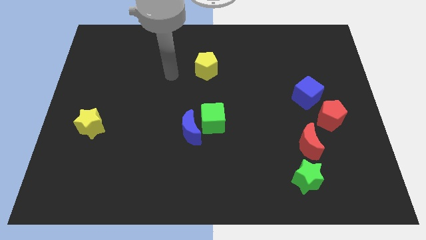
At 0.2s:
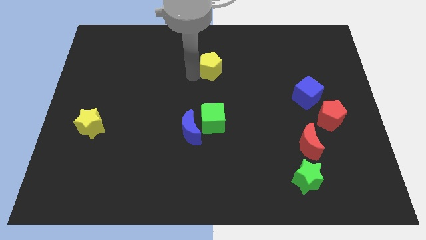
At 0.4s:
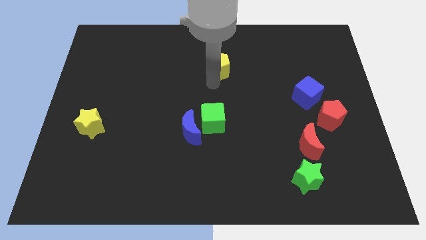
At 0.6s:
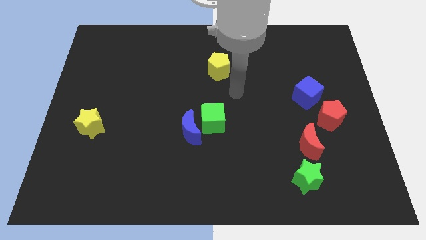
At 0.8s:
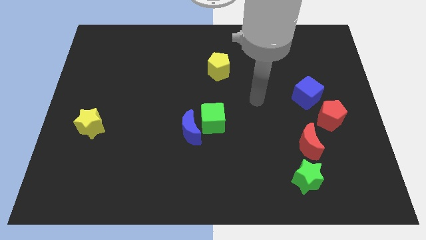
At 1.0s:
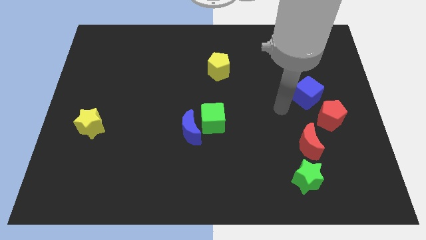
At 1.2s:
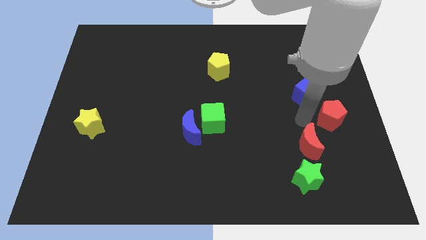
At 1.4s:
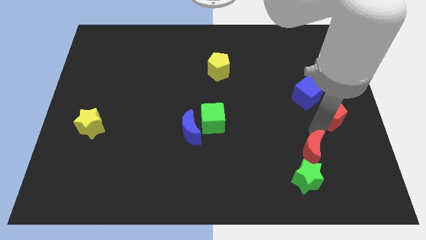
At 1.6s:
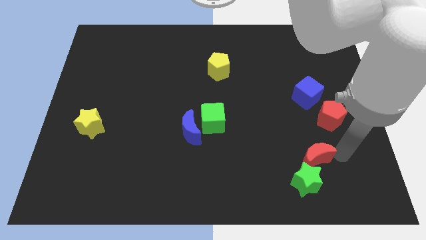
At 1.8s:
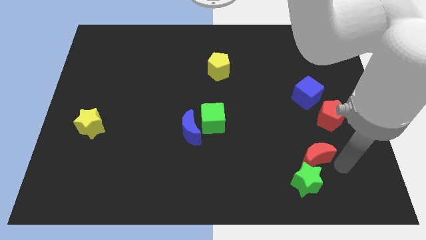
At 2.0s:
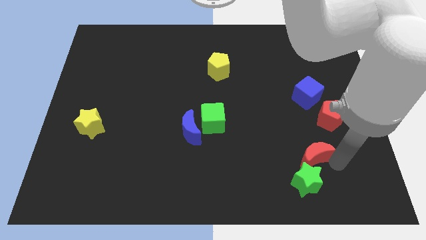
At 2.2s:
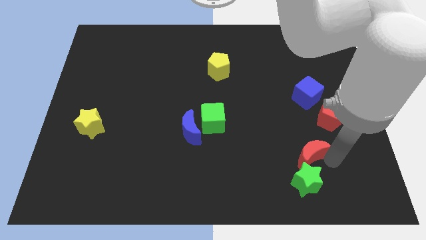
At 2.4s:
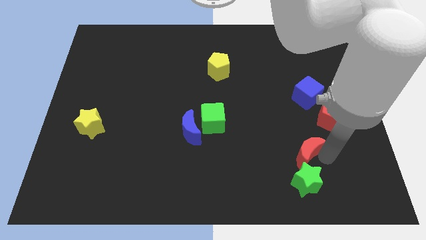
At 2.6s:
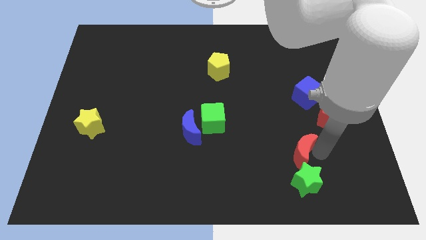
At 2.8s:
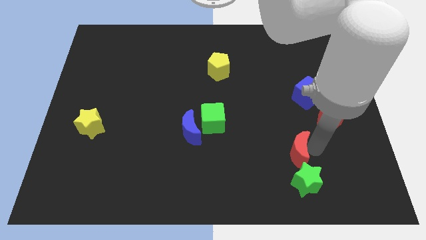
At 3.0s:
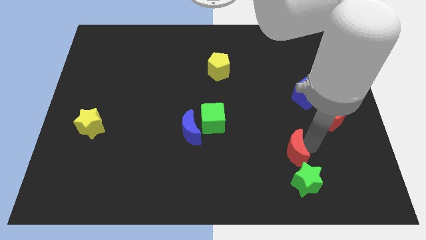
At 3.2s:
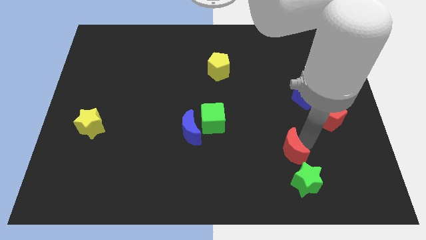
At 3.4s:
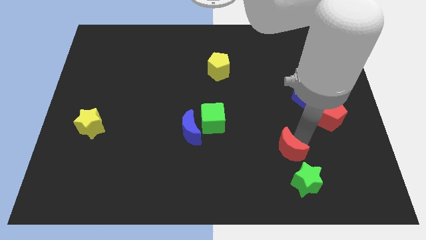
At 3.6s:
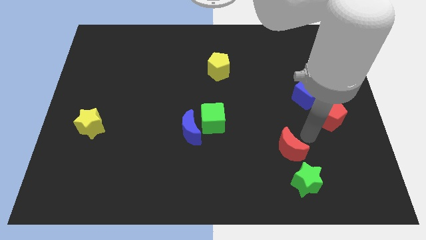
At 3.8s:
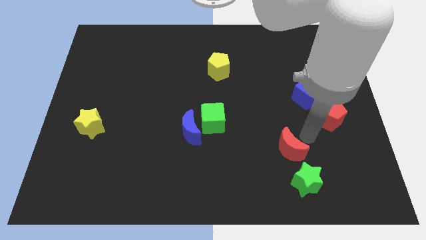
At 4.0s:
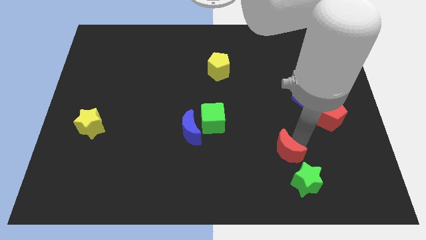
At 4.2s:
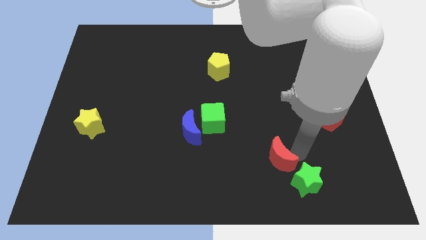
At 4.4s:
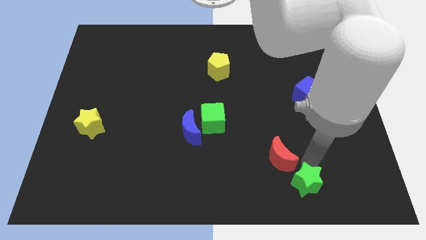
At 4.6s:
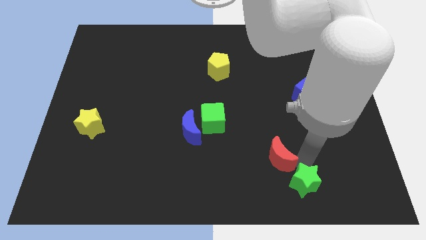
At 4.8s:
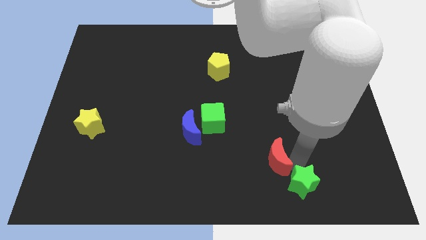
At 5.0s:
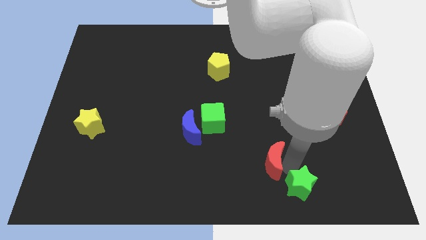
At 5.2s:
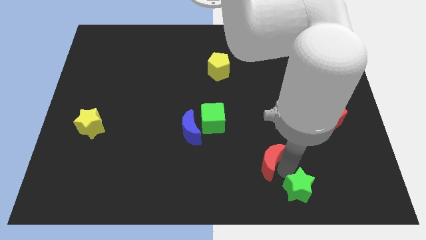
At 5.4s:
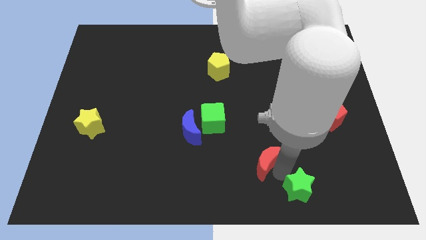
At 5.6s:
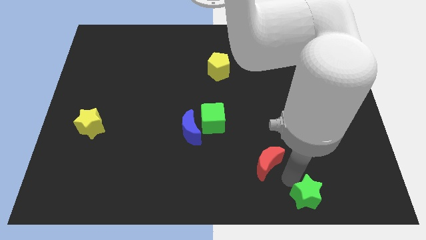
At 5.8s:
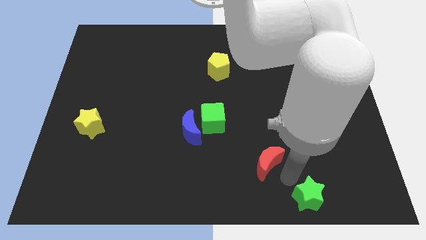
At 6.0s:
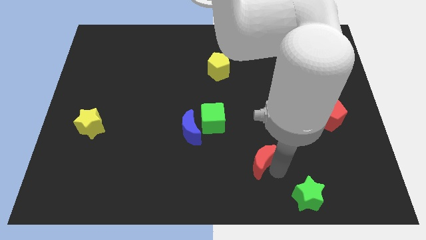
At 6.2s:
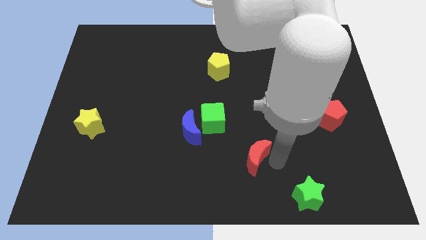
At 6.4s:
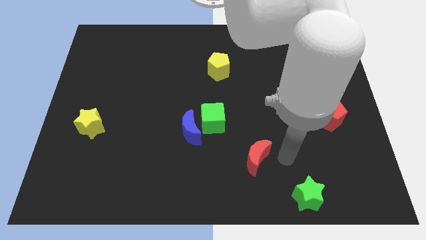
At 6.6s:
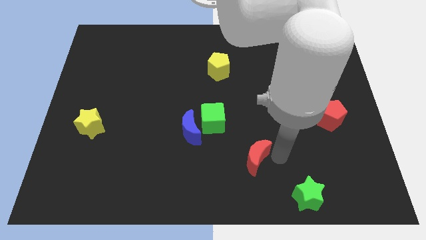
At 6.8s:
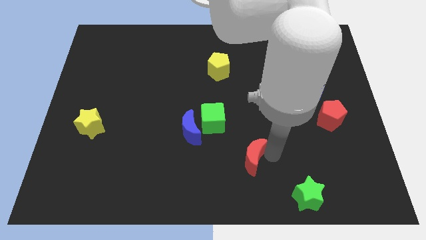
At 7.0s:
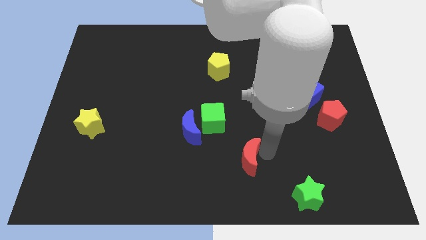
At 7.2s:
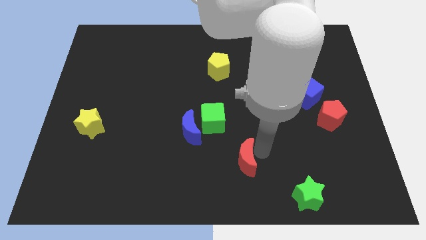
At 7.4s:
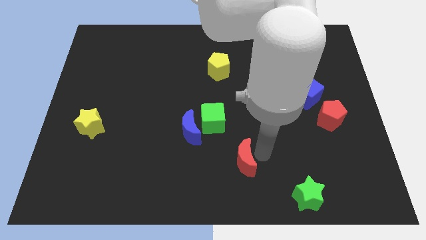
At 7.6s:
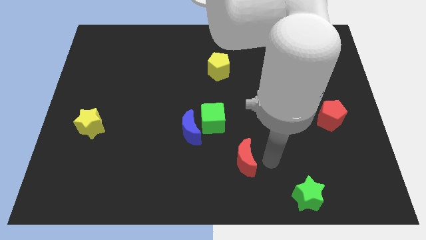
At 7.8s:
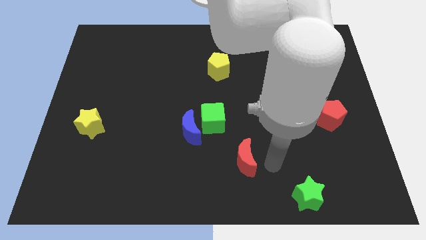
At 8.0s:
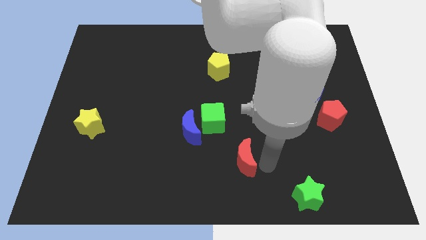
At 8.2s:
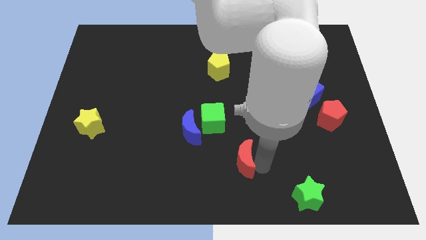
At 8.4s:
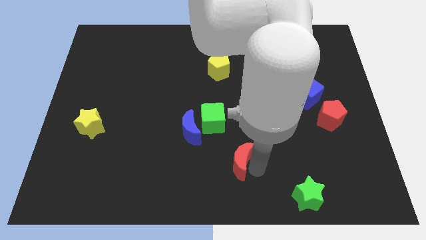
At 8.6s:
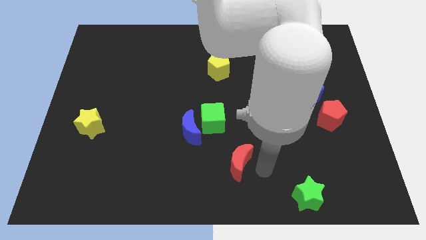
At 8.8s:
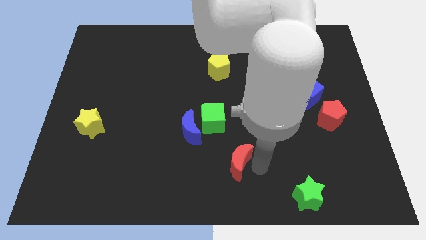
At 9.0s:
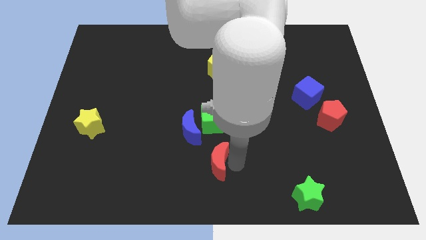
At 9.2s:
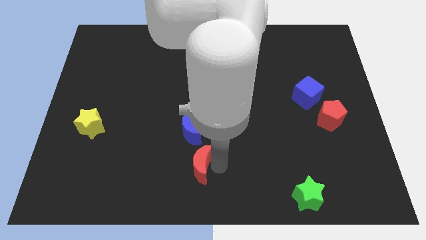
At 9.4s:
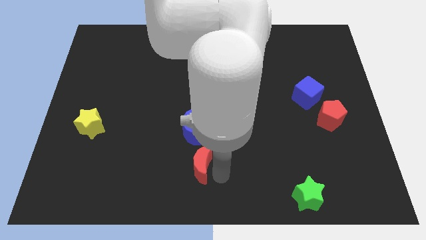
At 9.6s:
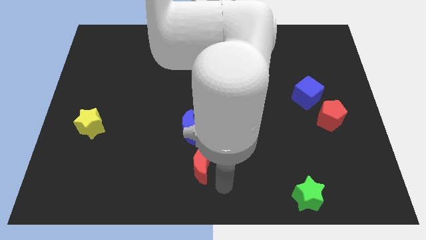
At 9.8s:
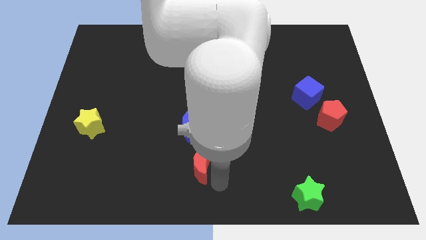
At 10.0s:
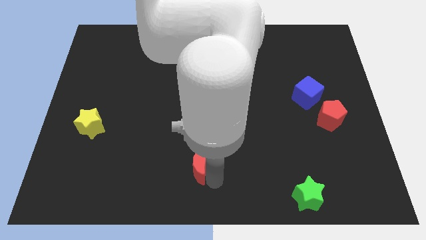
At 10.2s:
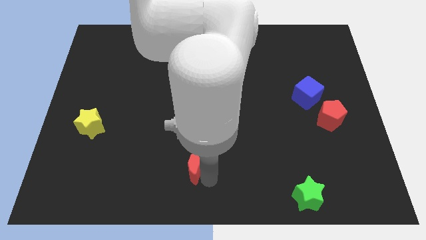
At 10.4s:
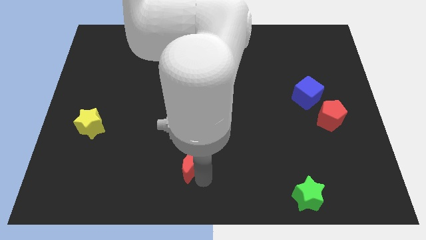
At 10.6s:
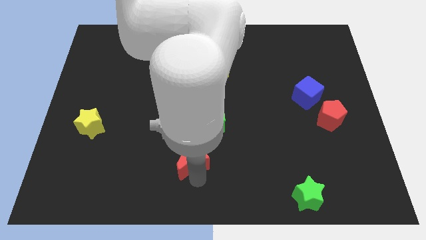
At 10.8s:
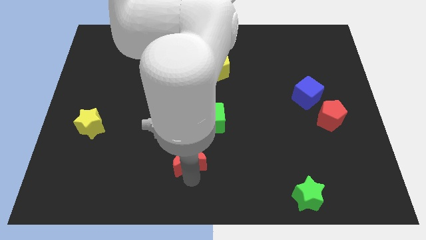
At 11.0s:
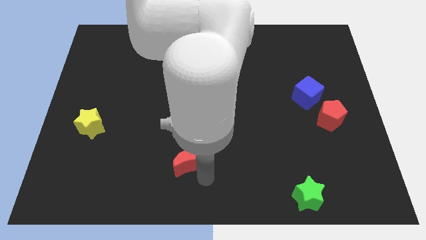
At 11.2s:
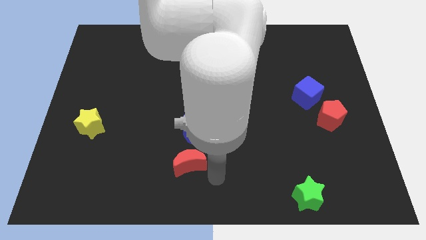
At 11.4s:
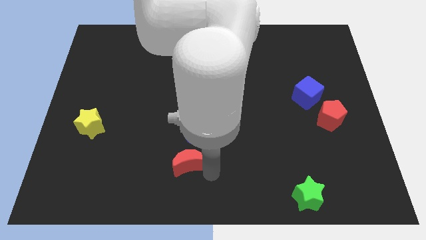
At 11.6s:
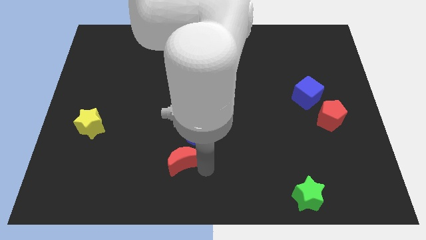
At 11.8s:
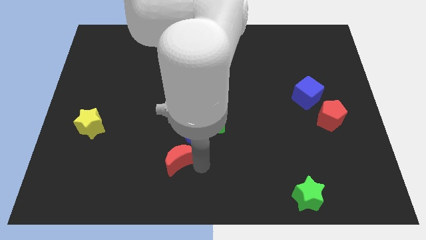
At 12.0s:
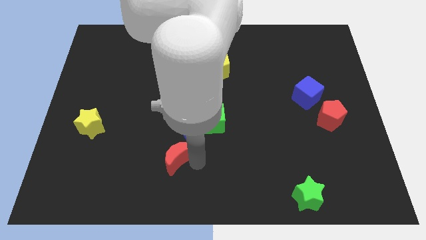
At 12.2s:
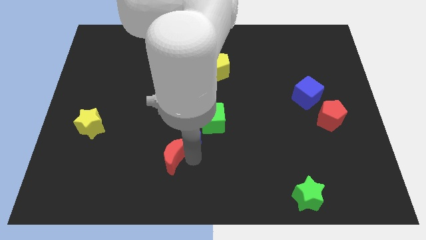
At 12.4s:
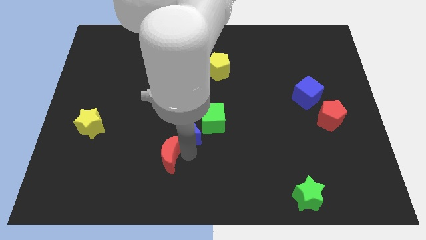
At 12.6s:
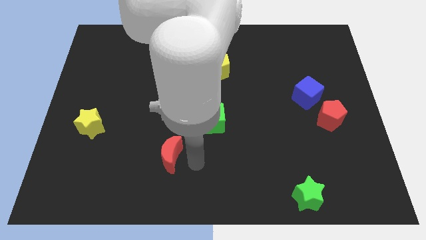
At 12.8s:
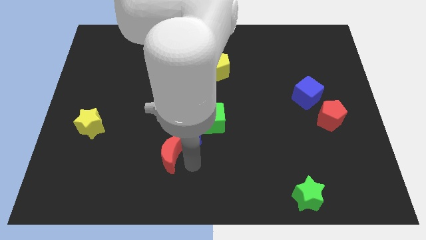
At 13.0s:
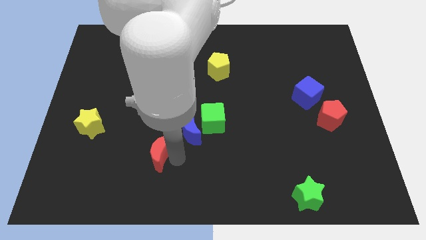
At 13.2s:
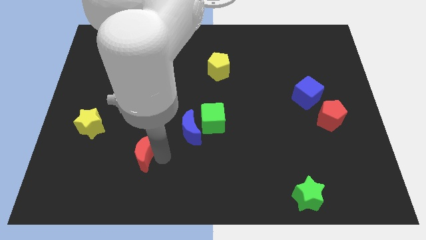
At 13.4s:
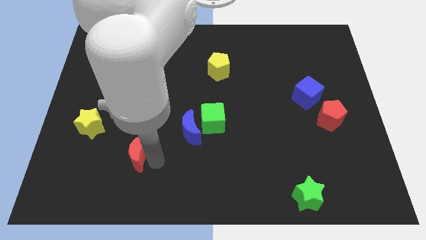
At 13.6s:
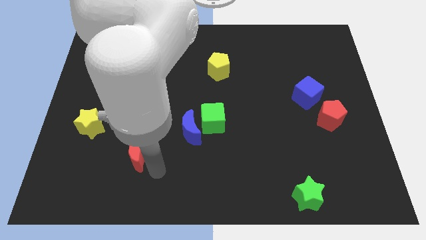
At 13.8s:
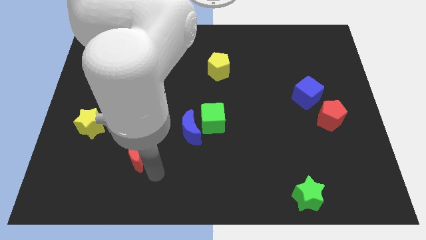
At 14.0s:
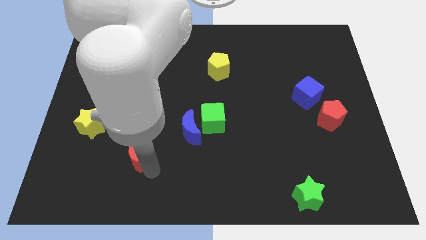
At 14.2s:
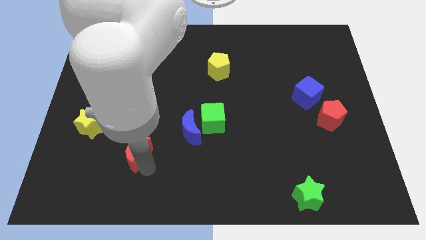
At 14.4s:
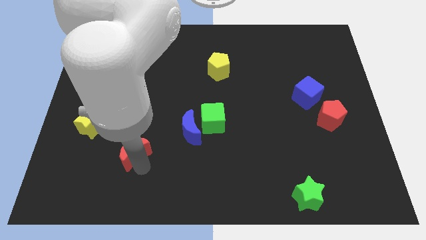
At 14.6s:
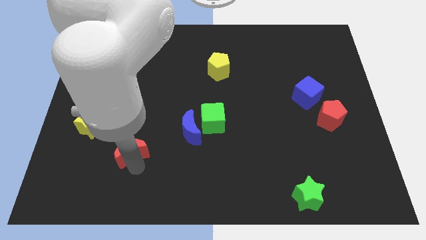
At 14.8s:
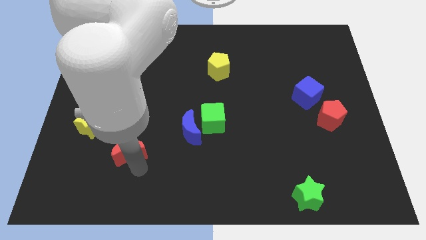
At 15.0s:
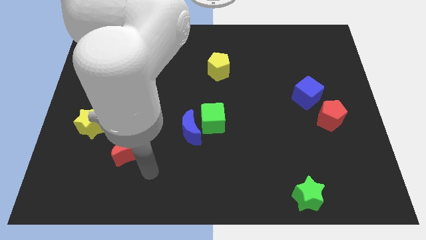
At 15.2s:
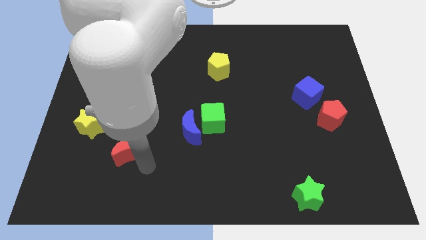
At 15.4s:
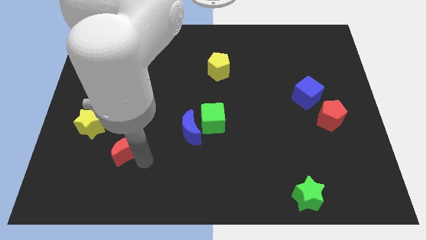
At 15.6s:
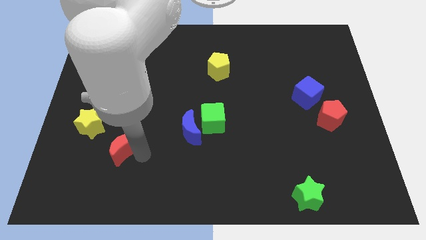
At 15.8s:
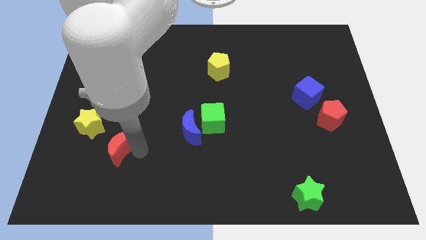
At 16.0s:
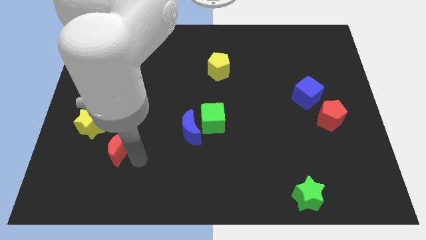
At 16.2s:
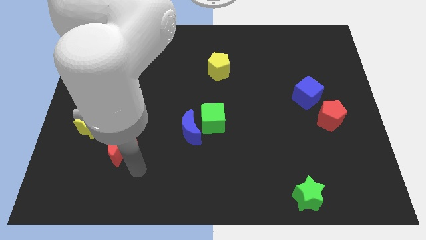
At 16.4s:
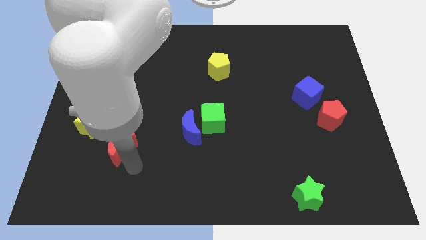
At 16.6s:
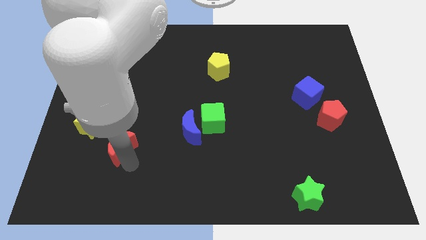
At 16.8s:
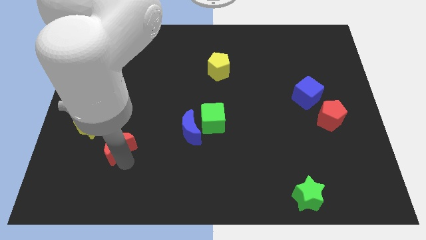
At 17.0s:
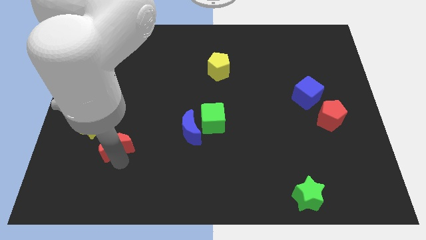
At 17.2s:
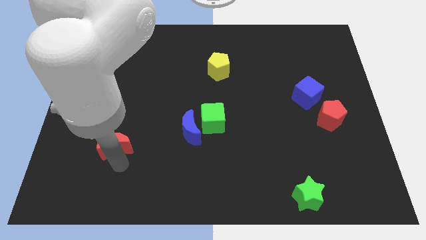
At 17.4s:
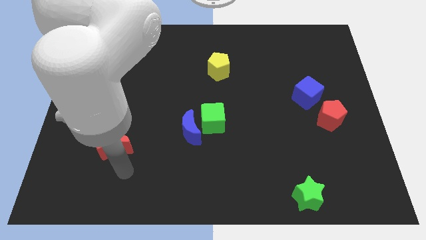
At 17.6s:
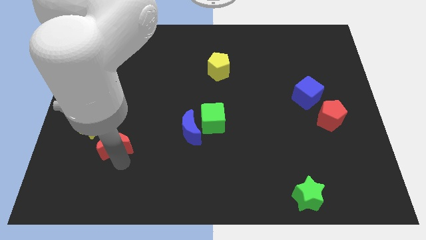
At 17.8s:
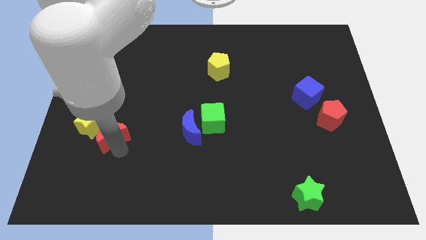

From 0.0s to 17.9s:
move the red moon close to the yellow star
